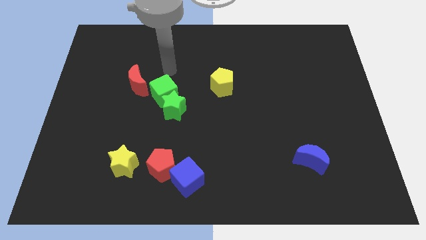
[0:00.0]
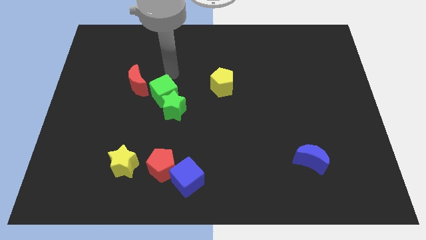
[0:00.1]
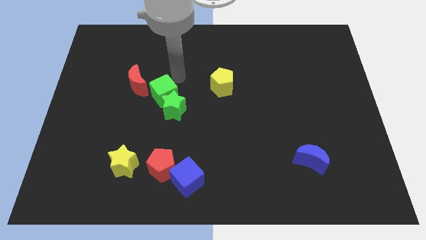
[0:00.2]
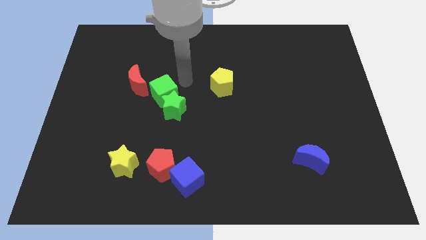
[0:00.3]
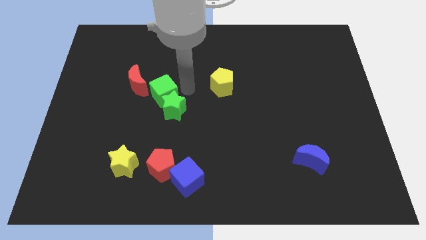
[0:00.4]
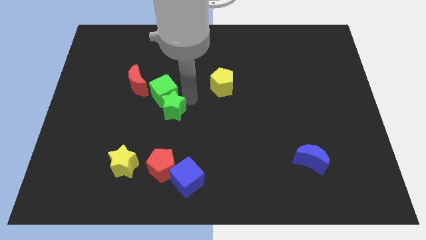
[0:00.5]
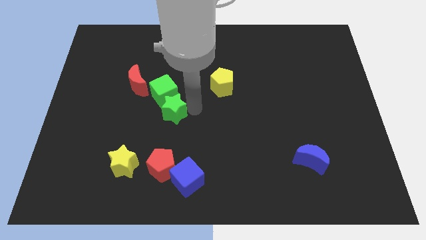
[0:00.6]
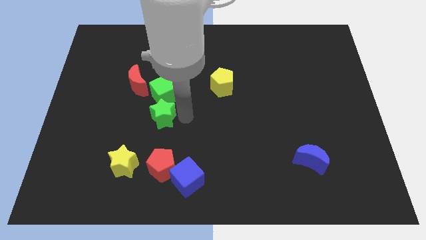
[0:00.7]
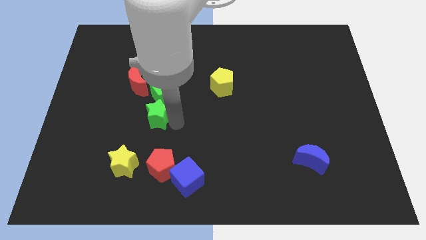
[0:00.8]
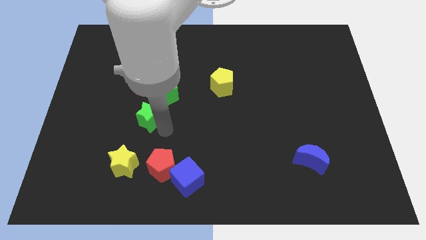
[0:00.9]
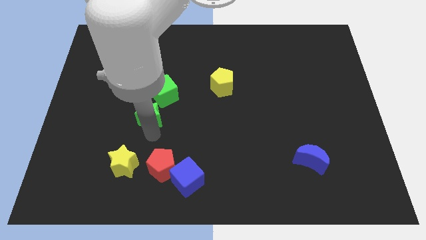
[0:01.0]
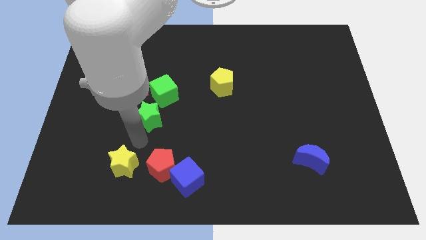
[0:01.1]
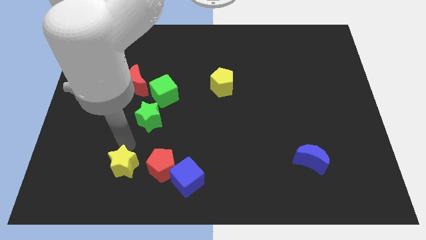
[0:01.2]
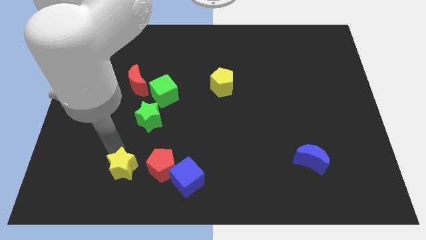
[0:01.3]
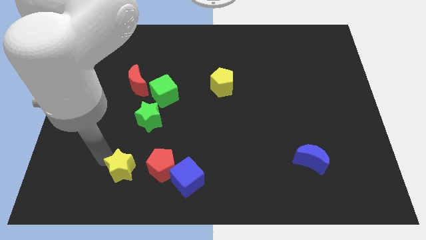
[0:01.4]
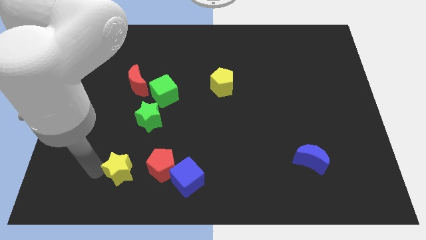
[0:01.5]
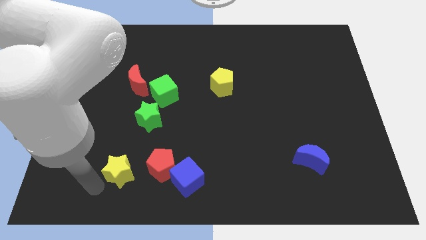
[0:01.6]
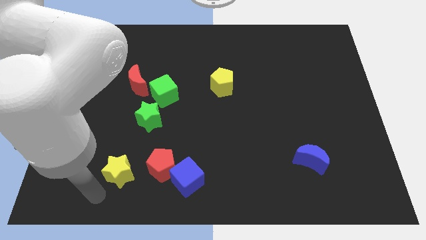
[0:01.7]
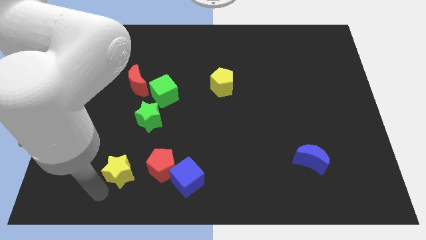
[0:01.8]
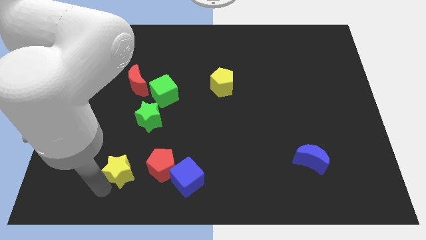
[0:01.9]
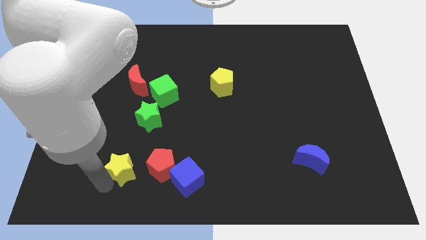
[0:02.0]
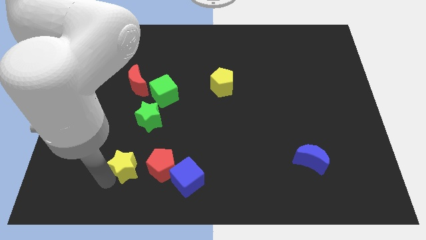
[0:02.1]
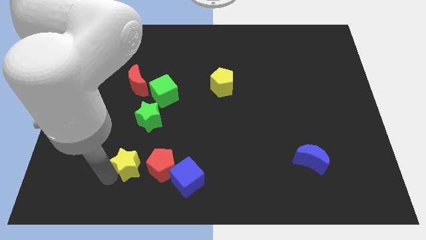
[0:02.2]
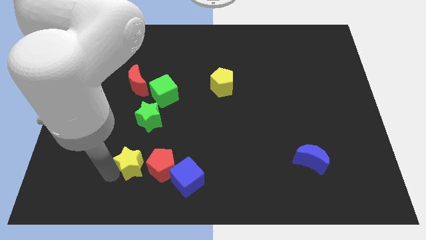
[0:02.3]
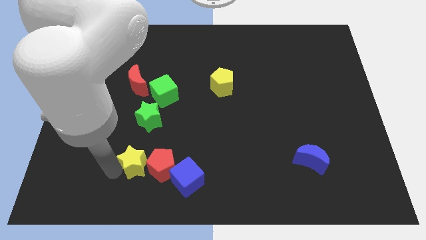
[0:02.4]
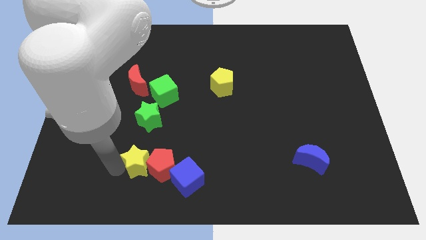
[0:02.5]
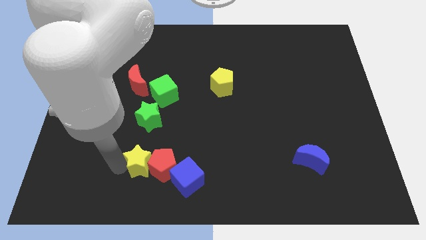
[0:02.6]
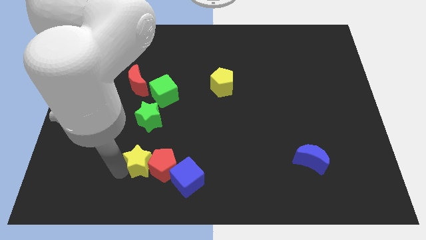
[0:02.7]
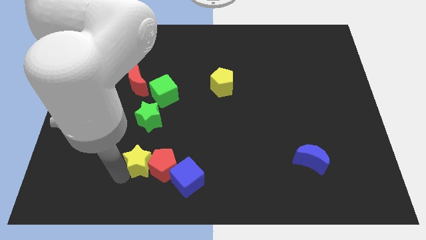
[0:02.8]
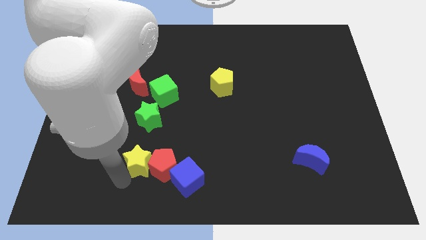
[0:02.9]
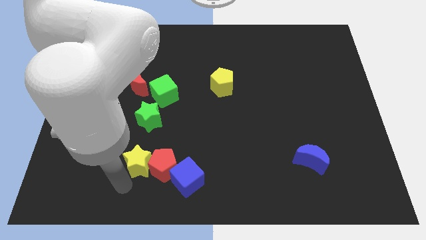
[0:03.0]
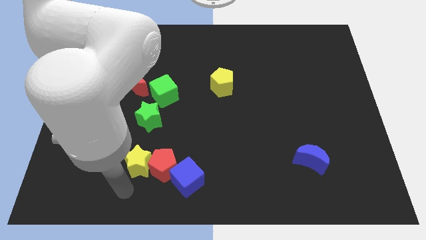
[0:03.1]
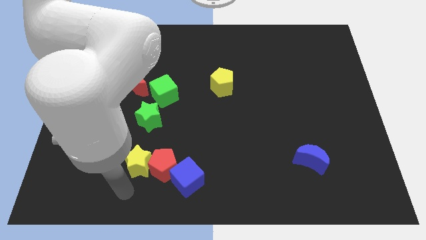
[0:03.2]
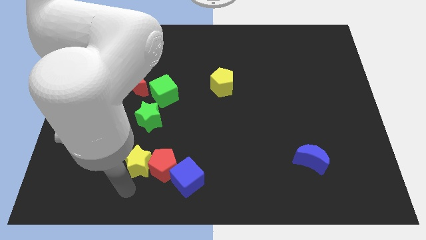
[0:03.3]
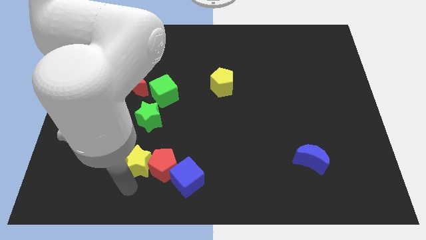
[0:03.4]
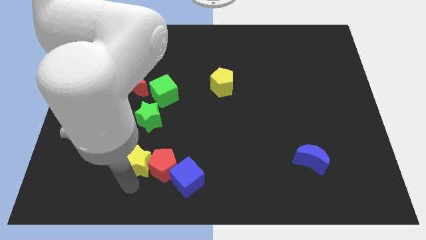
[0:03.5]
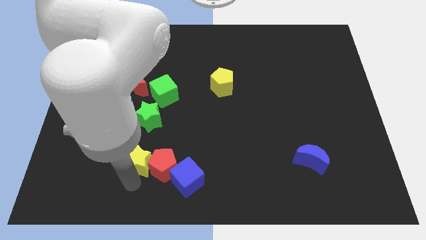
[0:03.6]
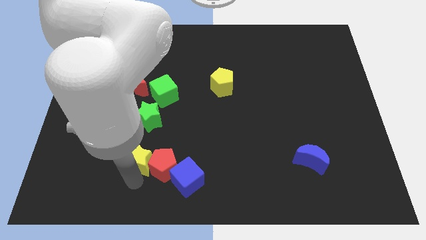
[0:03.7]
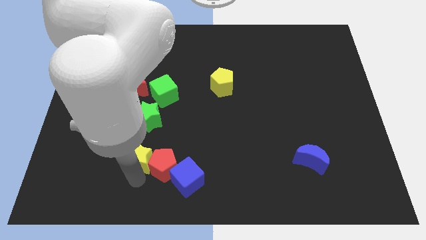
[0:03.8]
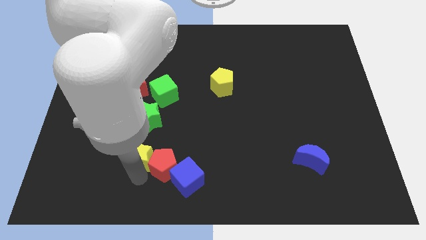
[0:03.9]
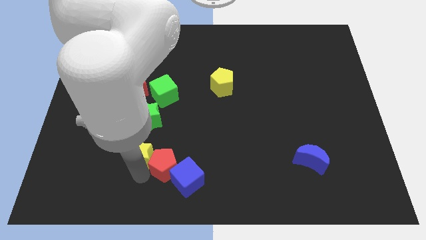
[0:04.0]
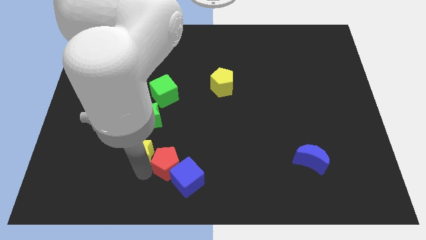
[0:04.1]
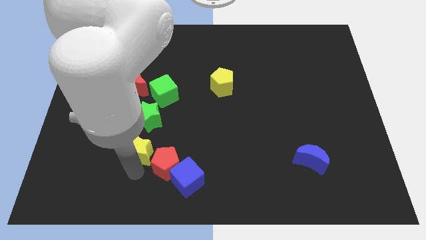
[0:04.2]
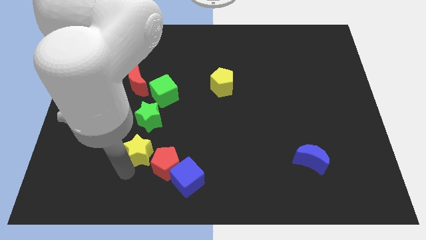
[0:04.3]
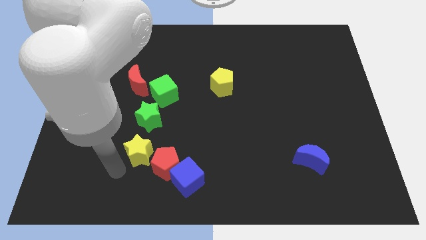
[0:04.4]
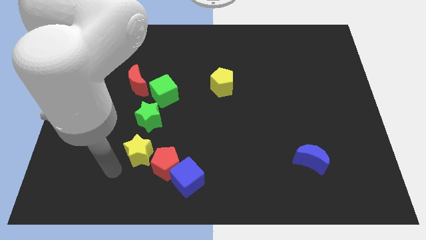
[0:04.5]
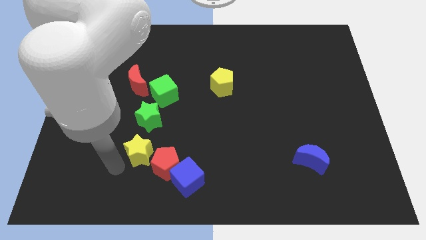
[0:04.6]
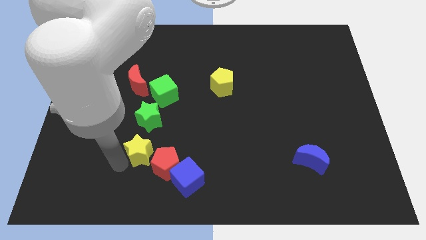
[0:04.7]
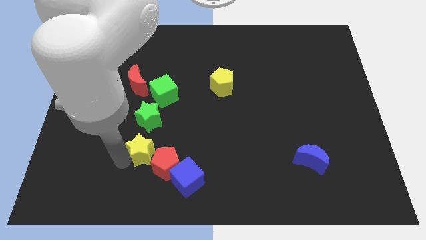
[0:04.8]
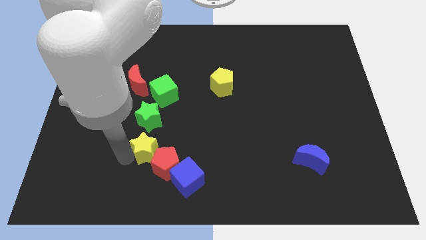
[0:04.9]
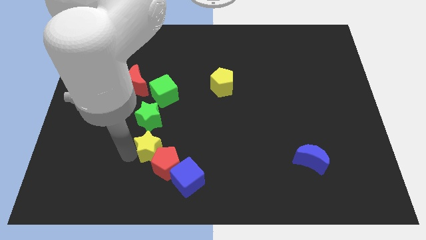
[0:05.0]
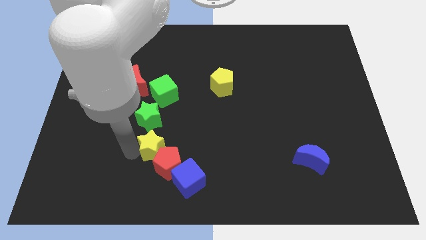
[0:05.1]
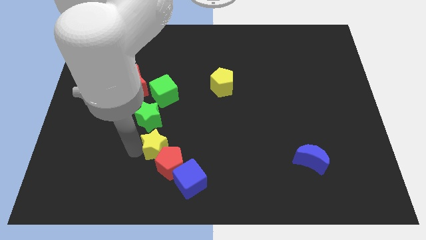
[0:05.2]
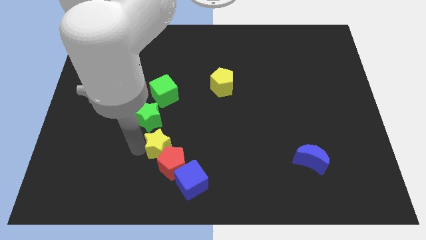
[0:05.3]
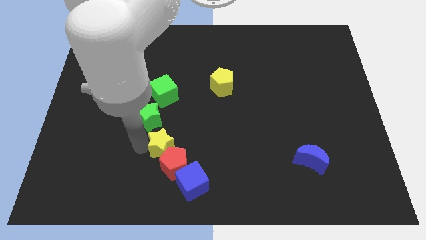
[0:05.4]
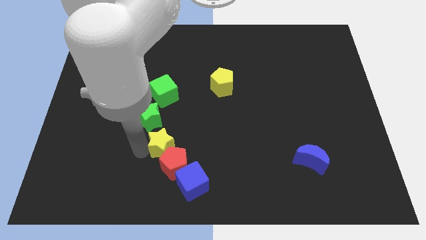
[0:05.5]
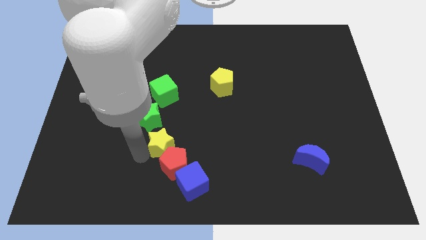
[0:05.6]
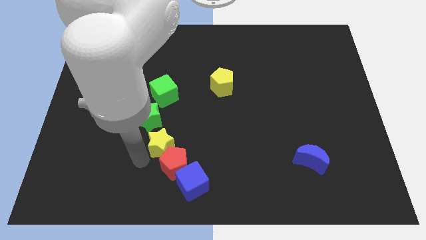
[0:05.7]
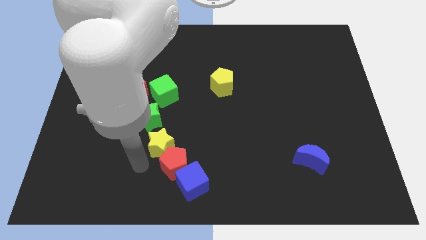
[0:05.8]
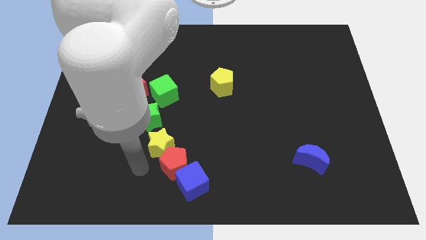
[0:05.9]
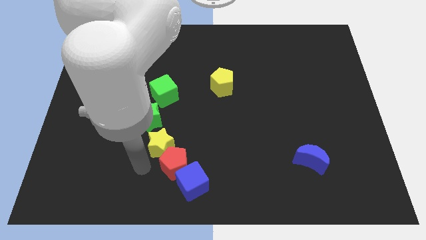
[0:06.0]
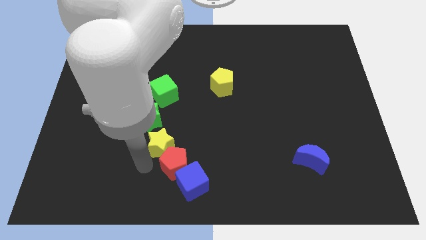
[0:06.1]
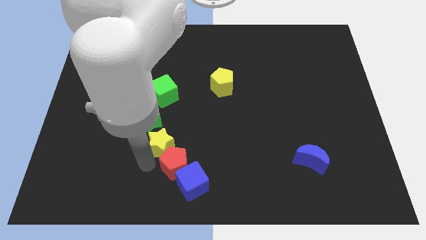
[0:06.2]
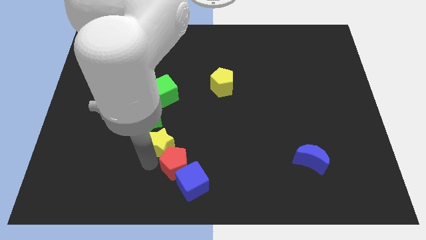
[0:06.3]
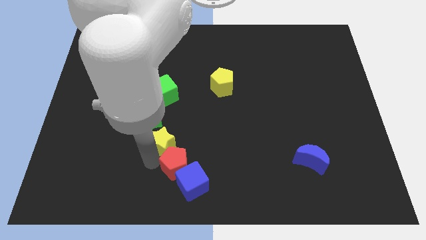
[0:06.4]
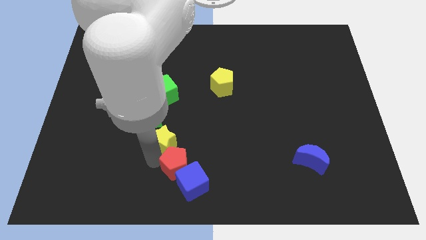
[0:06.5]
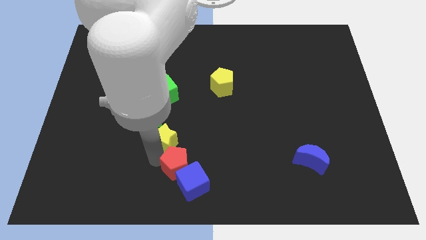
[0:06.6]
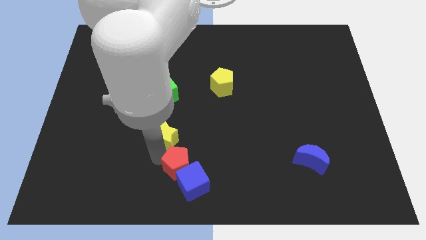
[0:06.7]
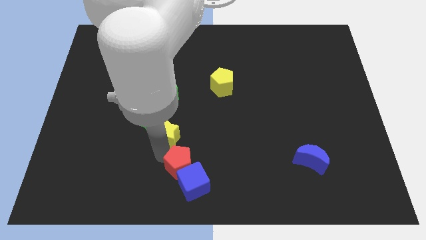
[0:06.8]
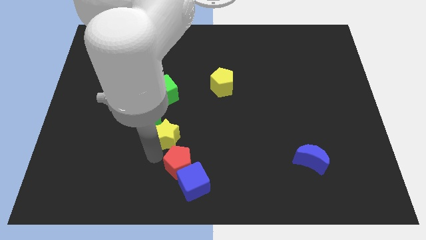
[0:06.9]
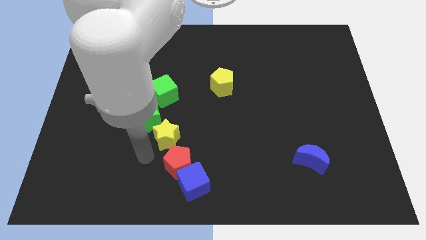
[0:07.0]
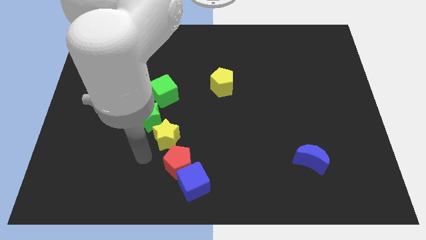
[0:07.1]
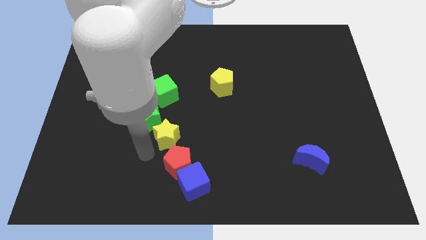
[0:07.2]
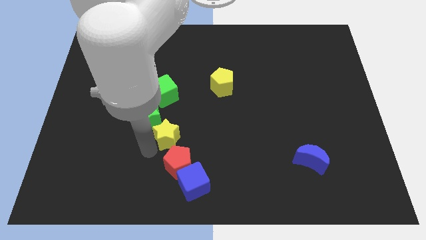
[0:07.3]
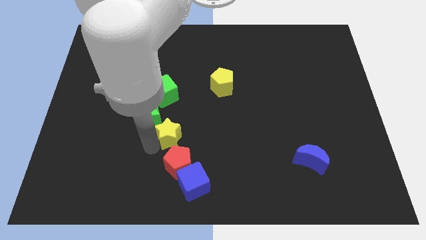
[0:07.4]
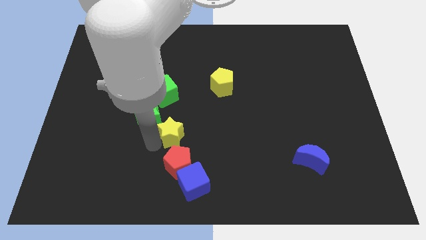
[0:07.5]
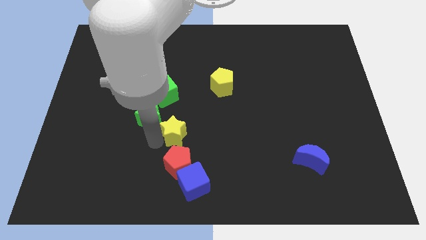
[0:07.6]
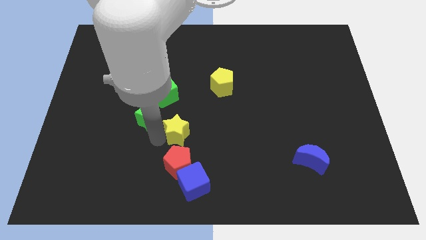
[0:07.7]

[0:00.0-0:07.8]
slide the yellow star to the center of the board
